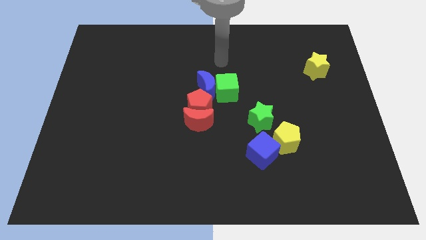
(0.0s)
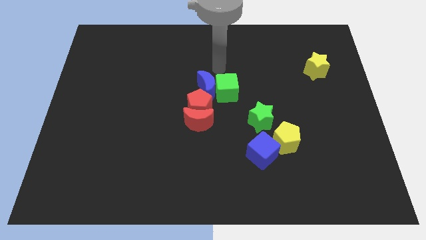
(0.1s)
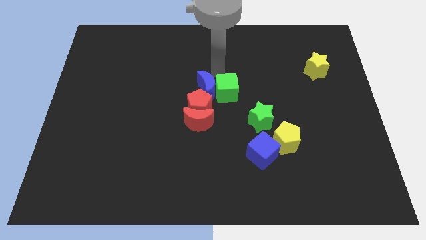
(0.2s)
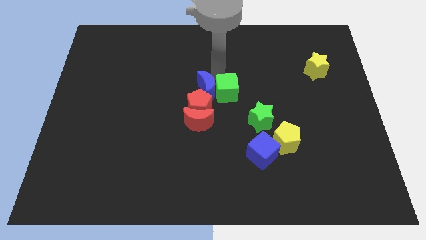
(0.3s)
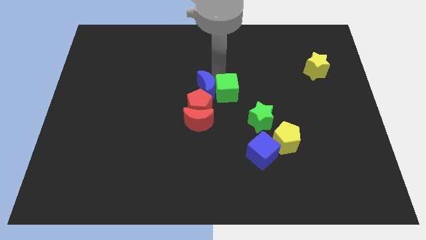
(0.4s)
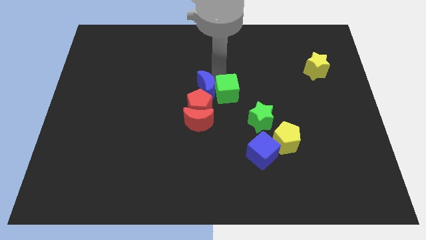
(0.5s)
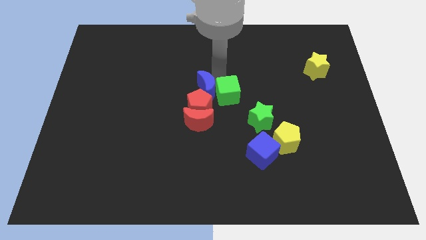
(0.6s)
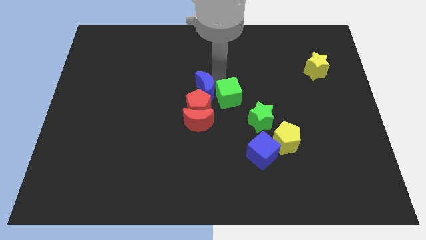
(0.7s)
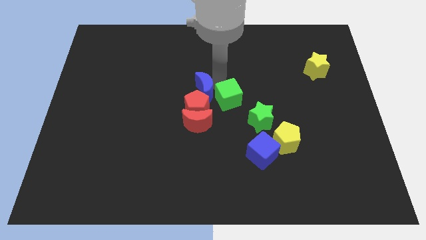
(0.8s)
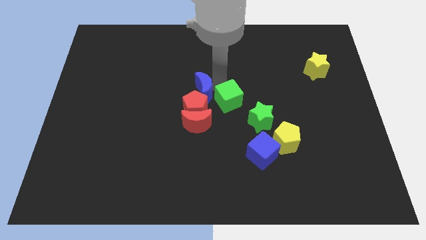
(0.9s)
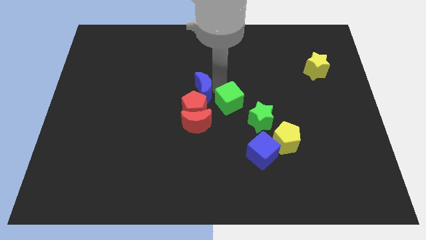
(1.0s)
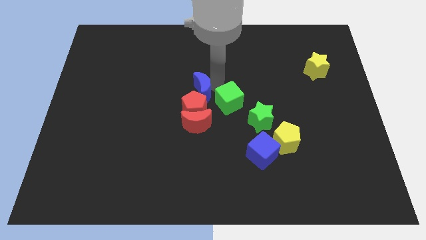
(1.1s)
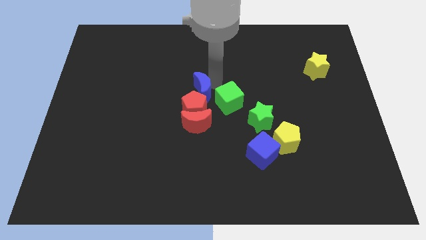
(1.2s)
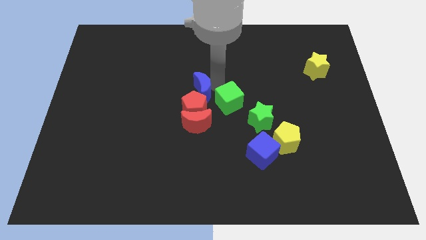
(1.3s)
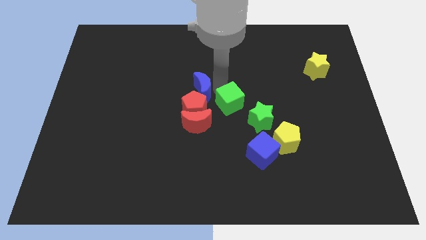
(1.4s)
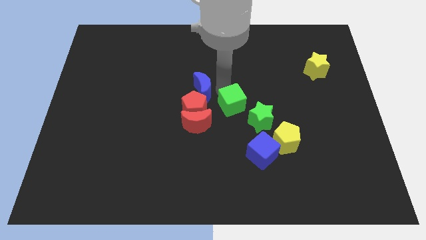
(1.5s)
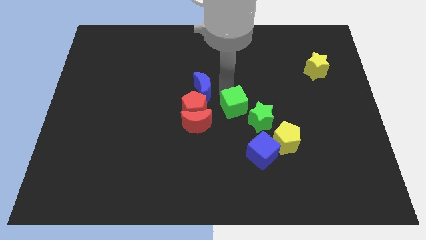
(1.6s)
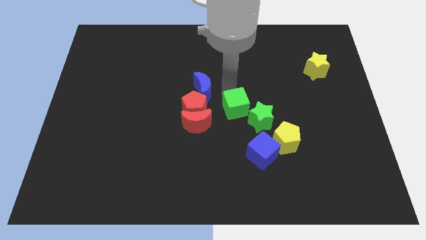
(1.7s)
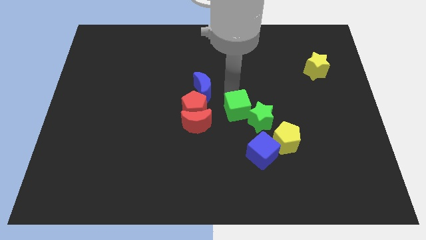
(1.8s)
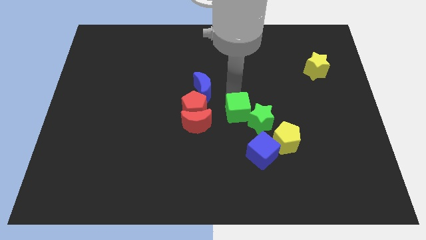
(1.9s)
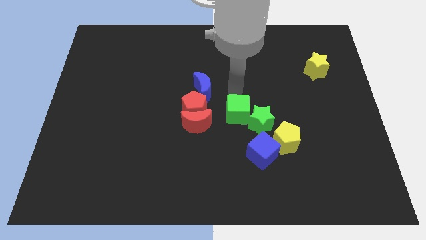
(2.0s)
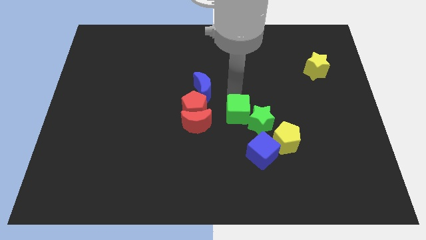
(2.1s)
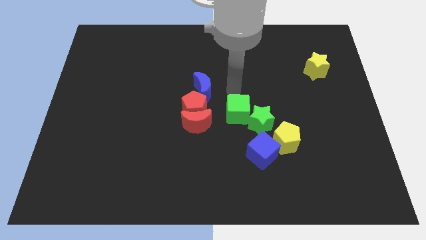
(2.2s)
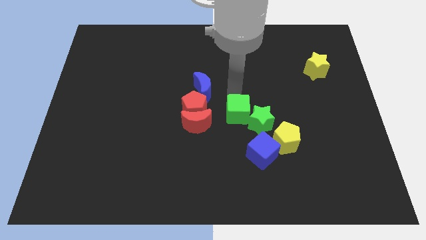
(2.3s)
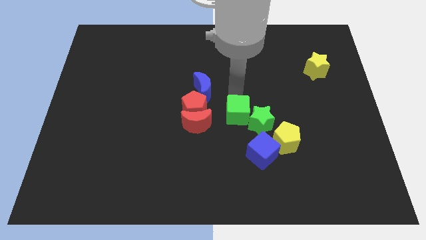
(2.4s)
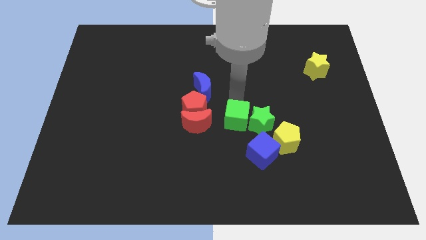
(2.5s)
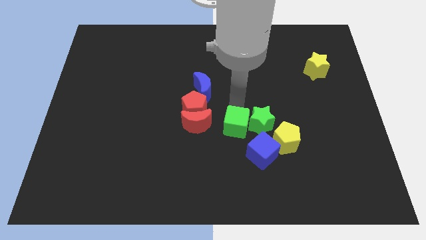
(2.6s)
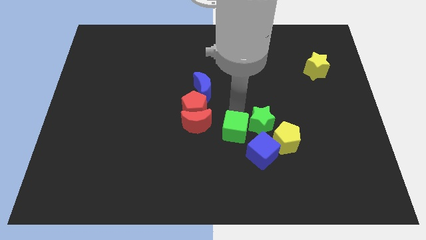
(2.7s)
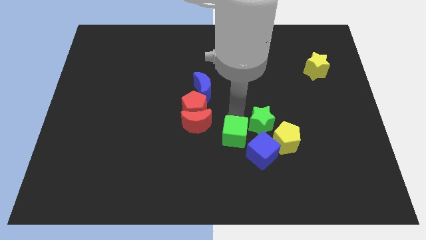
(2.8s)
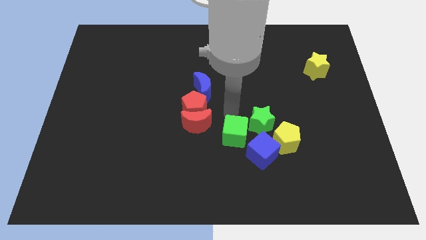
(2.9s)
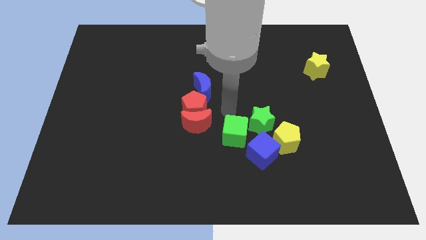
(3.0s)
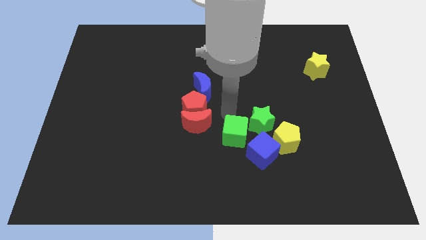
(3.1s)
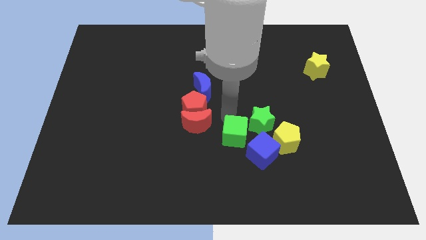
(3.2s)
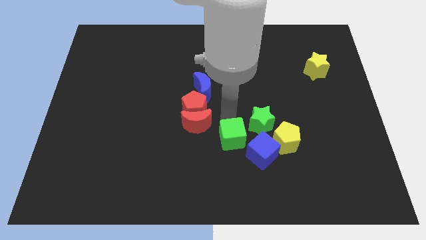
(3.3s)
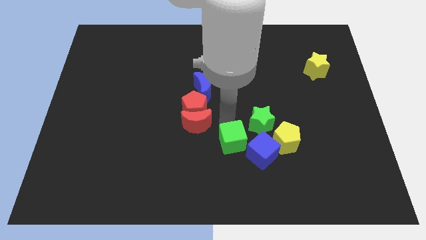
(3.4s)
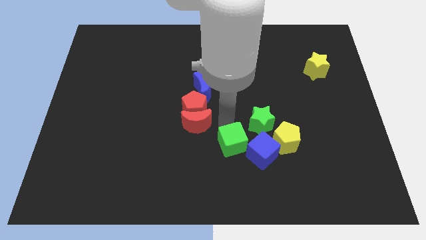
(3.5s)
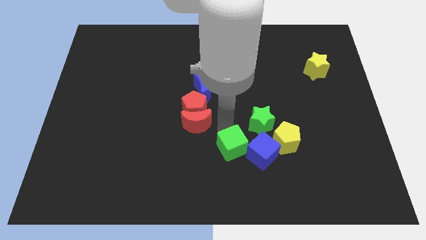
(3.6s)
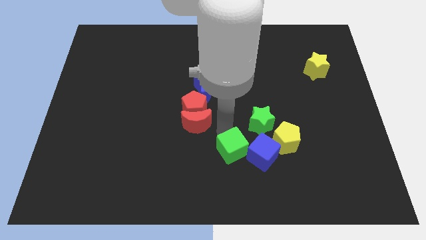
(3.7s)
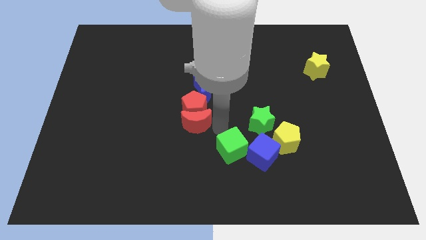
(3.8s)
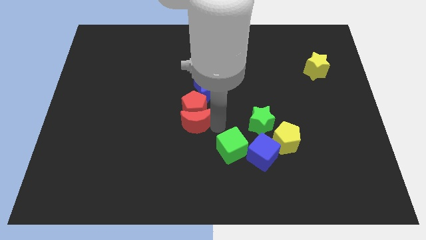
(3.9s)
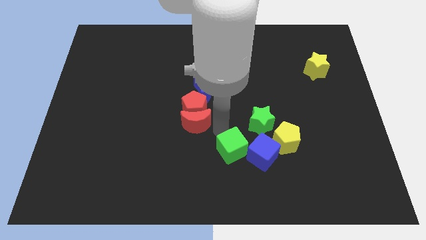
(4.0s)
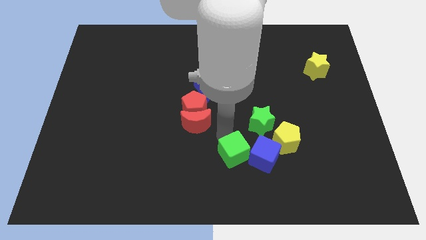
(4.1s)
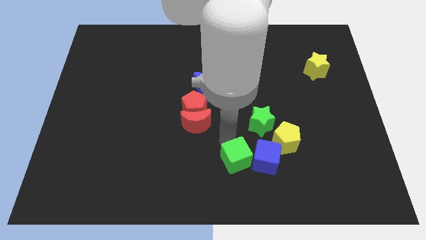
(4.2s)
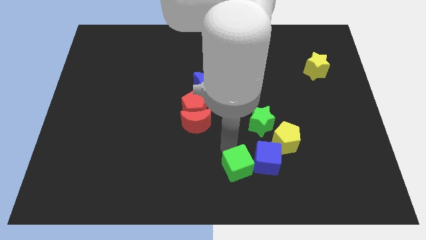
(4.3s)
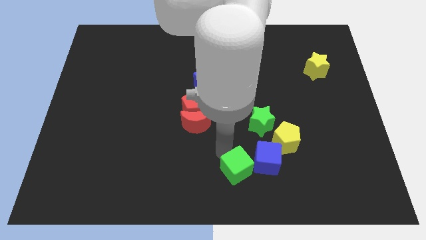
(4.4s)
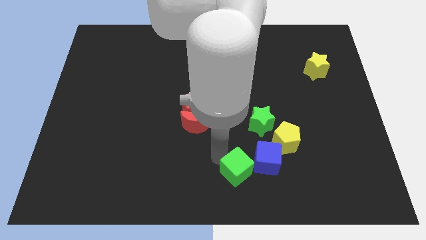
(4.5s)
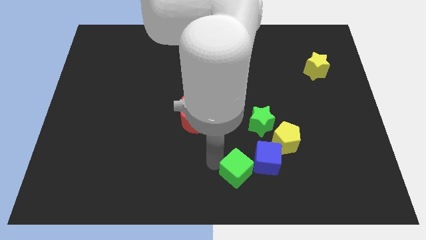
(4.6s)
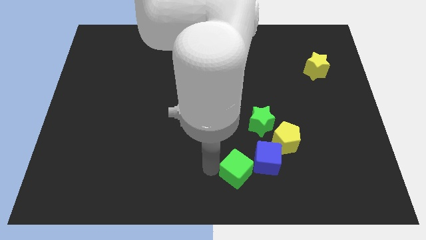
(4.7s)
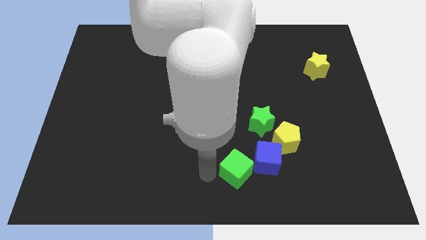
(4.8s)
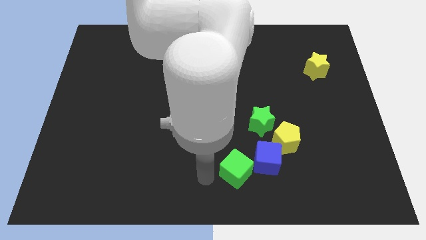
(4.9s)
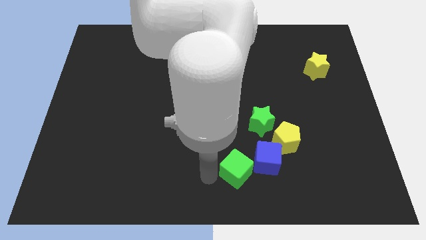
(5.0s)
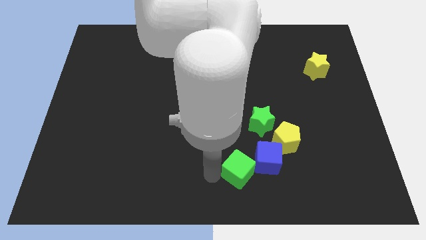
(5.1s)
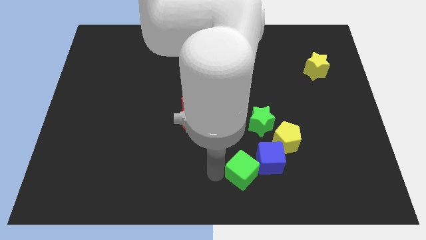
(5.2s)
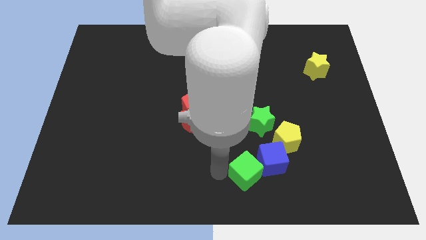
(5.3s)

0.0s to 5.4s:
slide the green cube below the green star

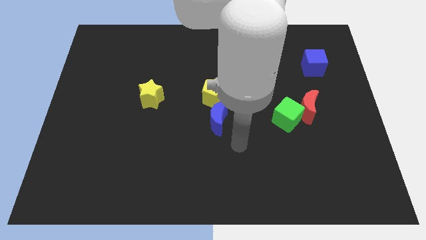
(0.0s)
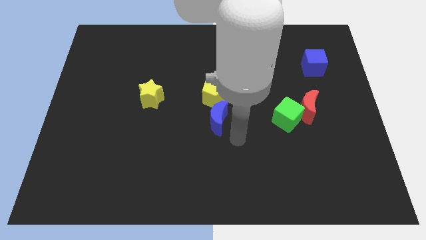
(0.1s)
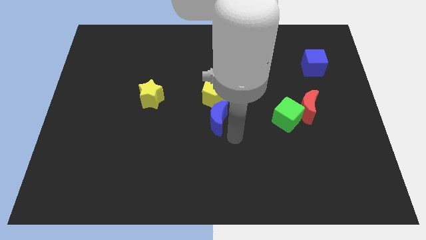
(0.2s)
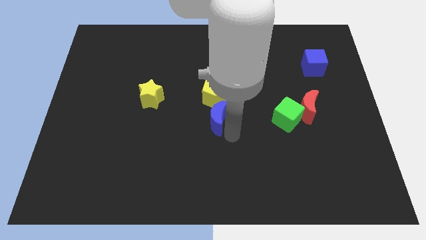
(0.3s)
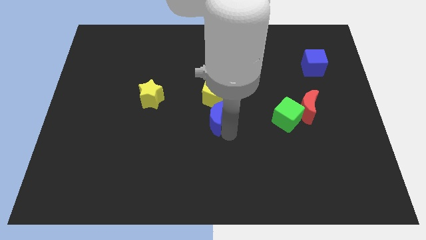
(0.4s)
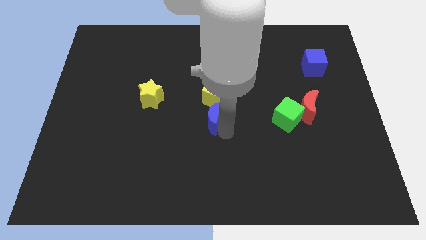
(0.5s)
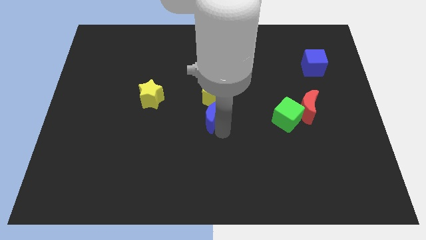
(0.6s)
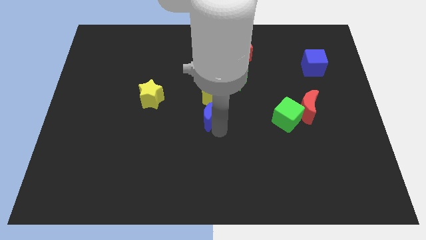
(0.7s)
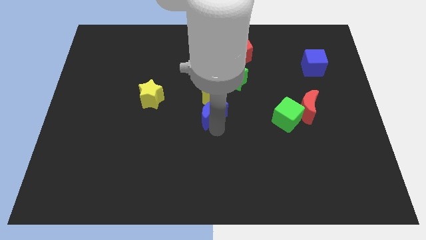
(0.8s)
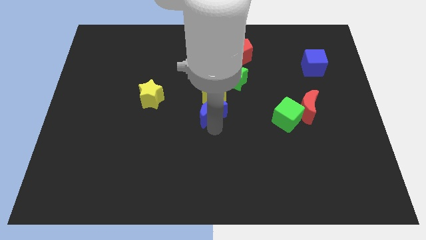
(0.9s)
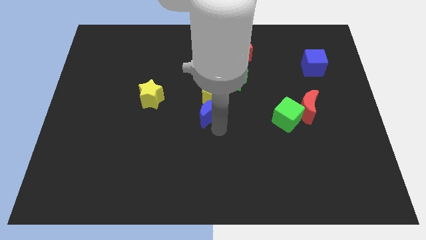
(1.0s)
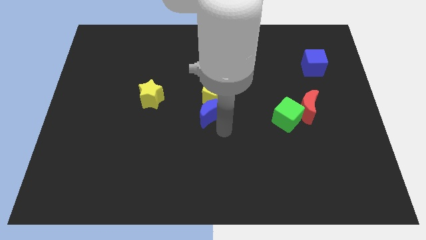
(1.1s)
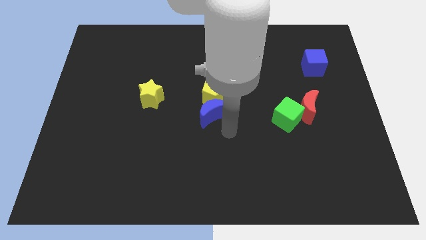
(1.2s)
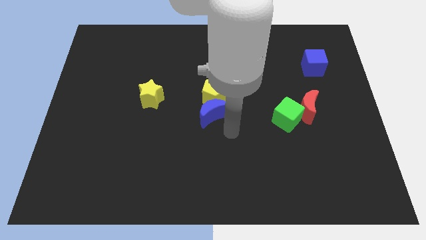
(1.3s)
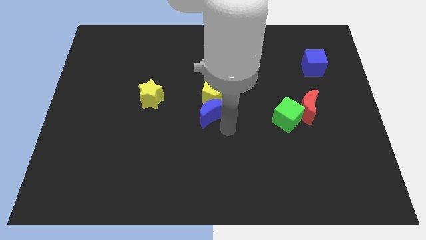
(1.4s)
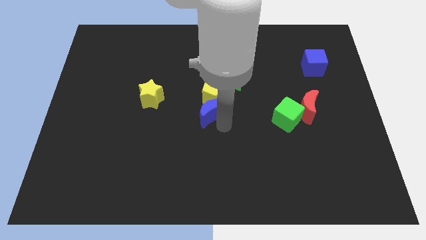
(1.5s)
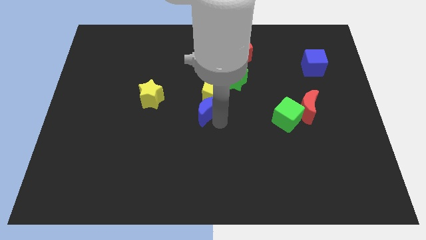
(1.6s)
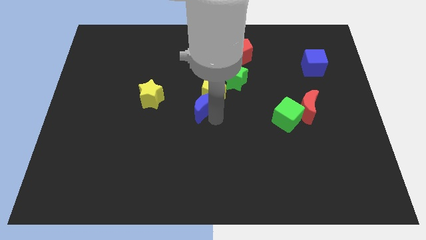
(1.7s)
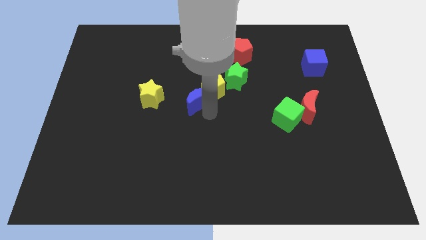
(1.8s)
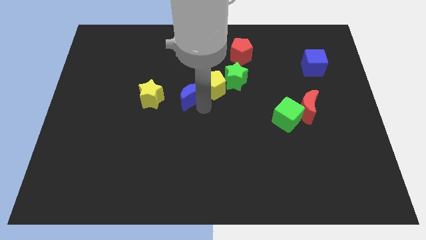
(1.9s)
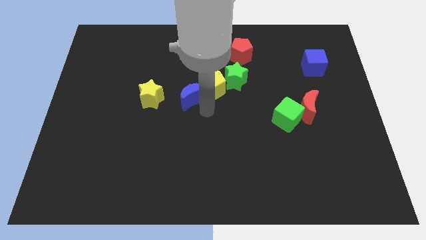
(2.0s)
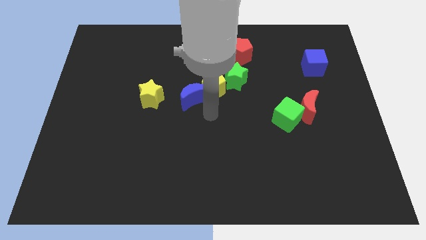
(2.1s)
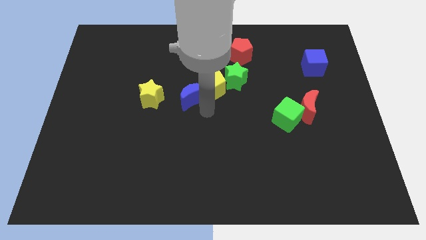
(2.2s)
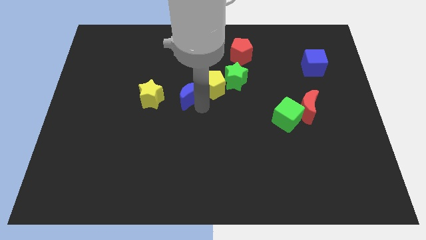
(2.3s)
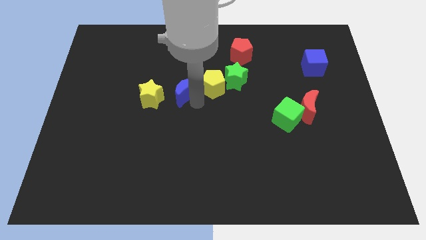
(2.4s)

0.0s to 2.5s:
slide the blue moon to the top right of the yellow star
